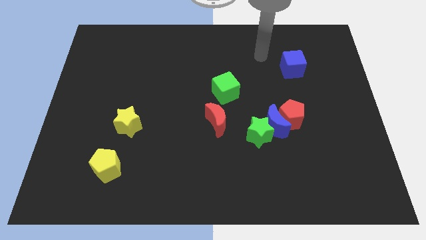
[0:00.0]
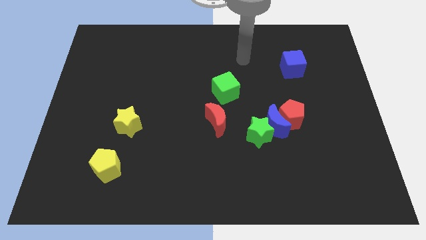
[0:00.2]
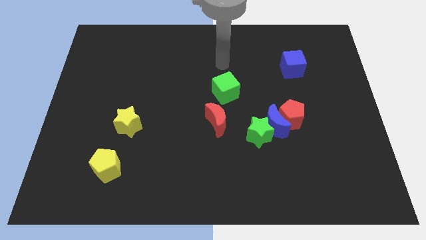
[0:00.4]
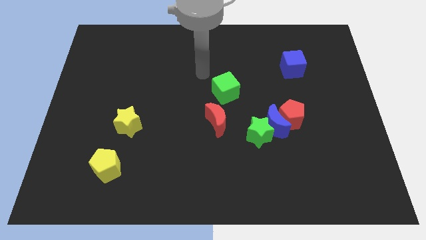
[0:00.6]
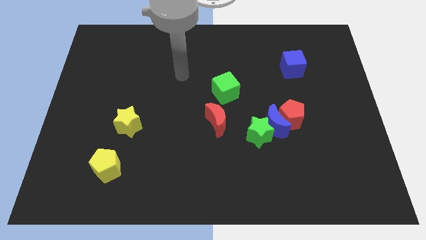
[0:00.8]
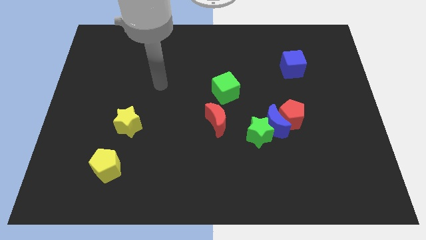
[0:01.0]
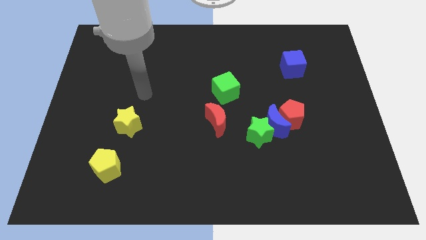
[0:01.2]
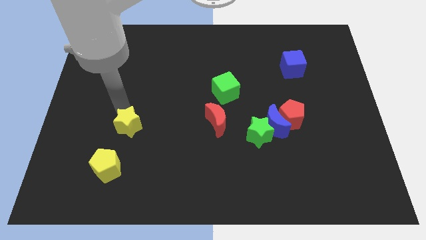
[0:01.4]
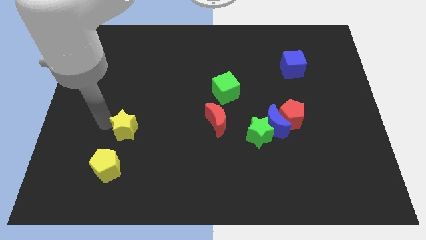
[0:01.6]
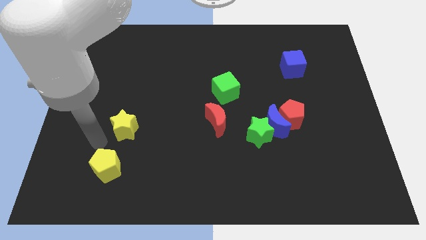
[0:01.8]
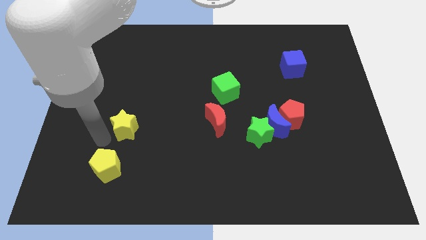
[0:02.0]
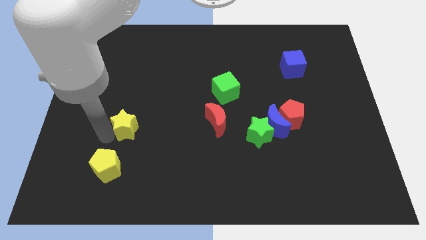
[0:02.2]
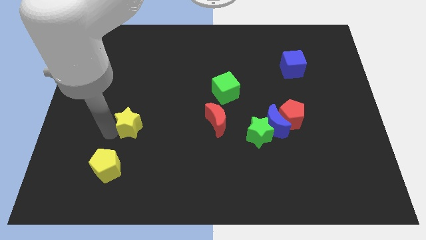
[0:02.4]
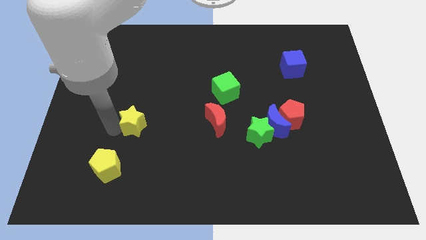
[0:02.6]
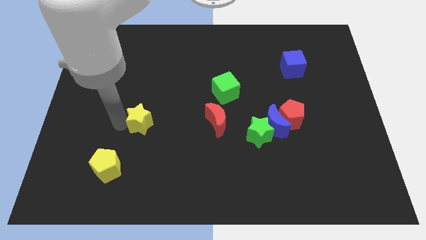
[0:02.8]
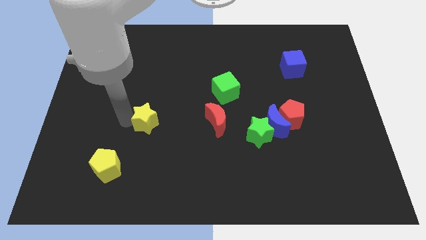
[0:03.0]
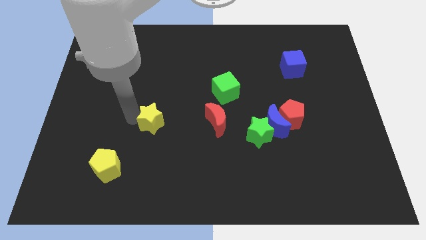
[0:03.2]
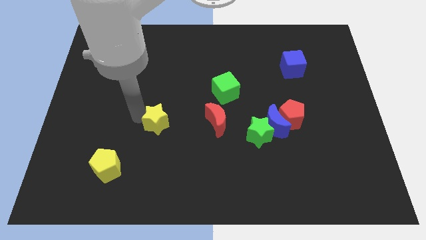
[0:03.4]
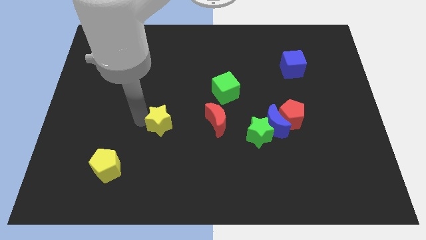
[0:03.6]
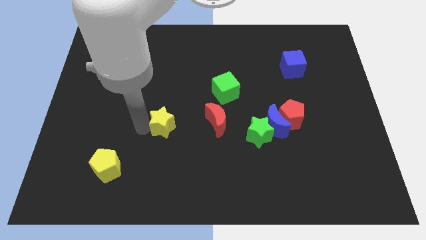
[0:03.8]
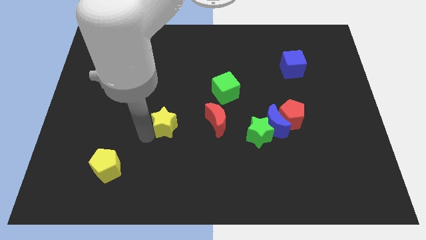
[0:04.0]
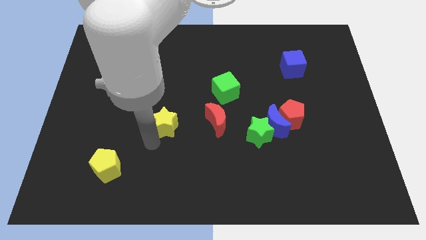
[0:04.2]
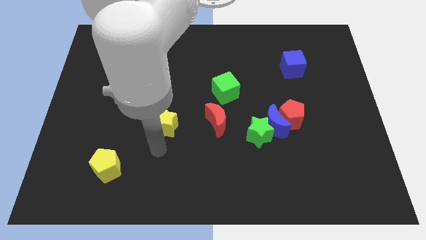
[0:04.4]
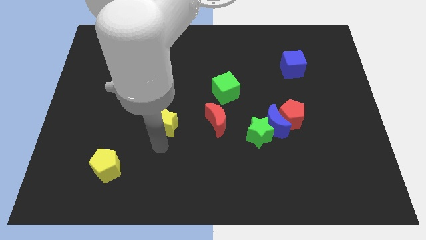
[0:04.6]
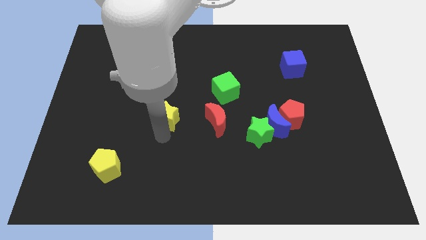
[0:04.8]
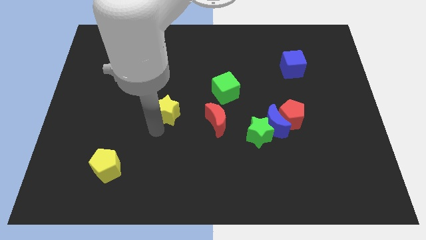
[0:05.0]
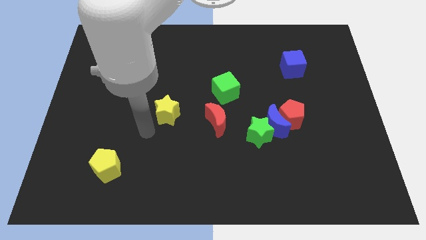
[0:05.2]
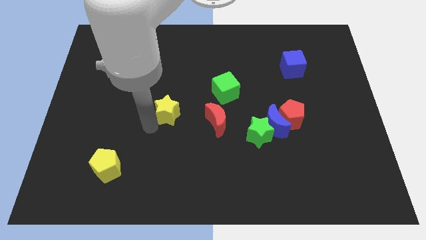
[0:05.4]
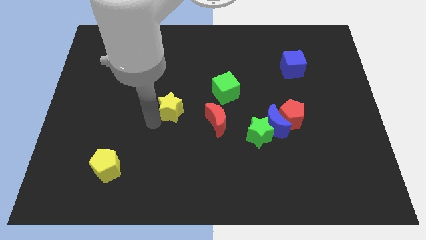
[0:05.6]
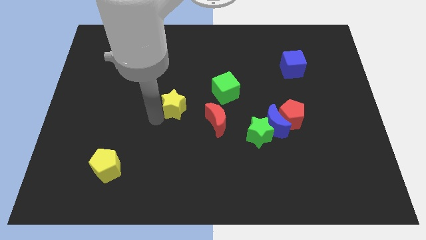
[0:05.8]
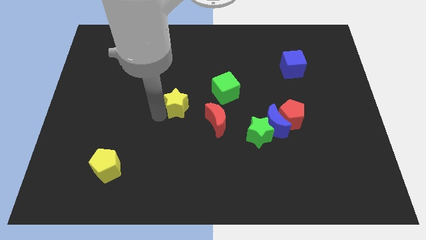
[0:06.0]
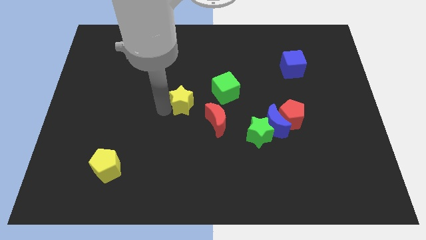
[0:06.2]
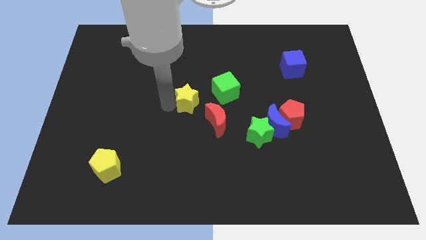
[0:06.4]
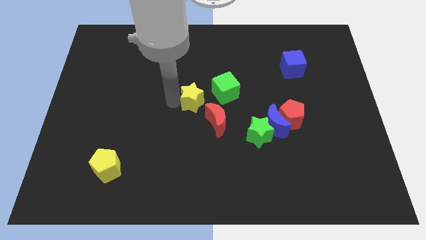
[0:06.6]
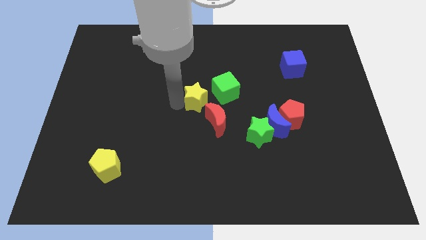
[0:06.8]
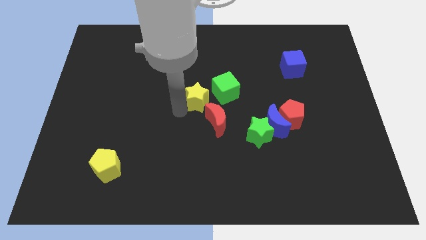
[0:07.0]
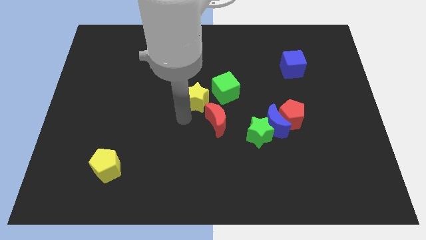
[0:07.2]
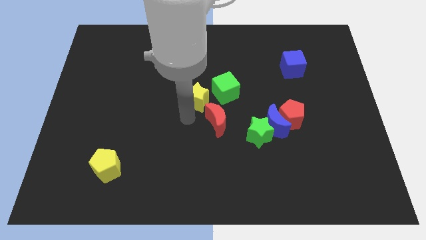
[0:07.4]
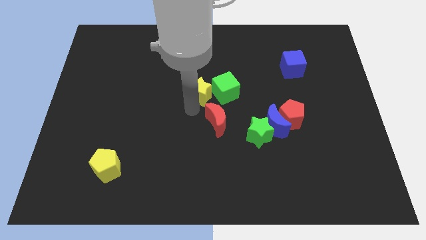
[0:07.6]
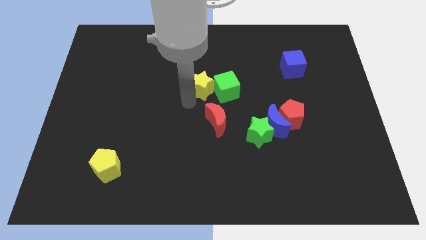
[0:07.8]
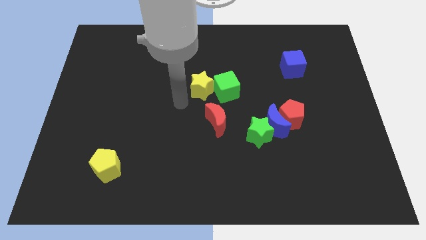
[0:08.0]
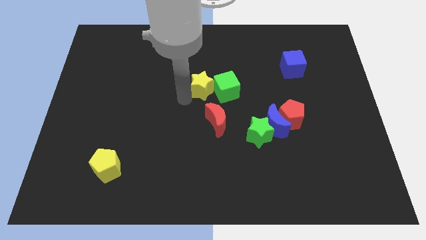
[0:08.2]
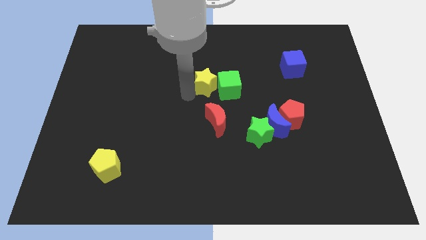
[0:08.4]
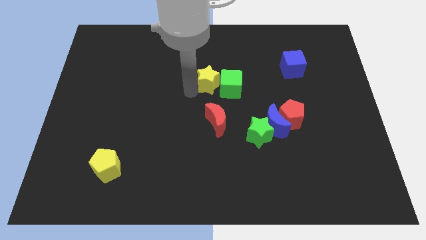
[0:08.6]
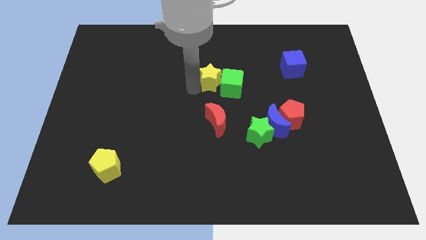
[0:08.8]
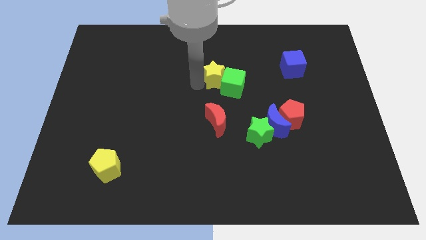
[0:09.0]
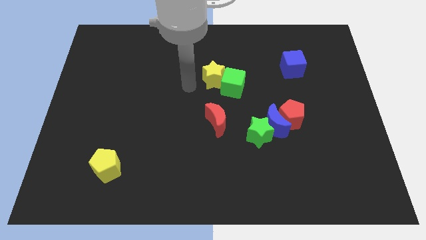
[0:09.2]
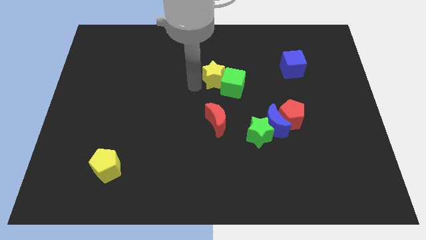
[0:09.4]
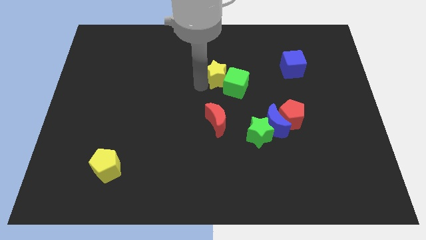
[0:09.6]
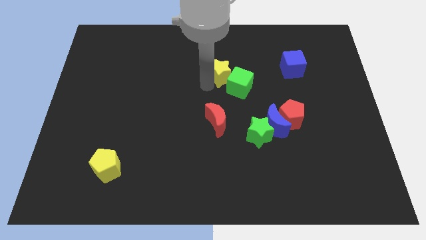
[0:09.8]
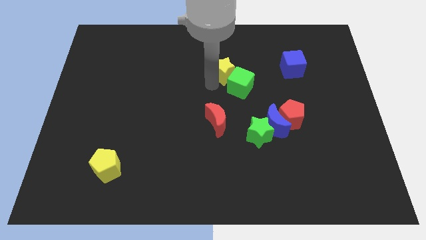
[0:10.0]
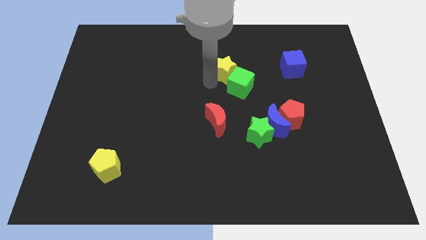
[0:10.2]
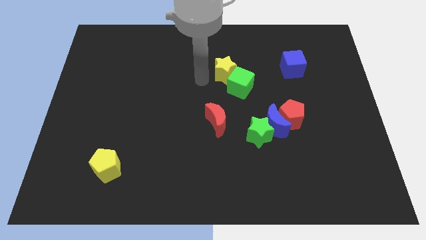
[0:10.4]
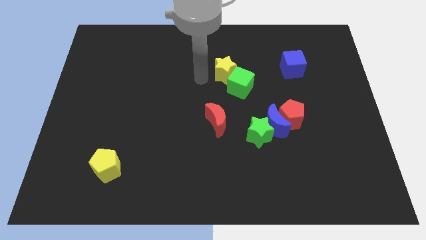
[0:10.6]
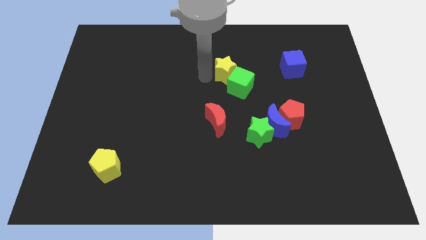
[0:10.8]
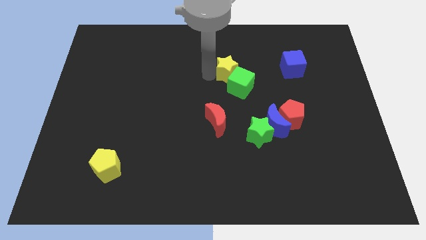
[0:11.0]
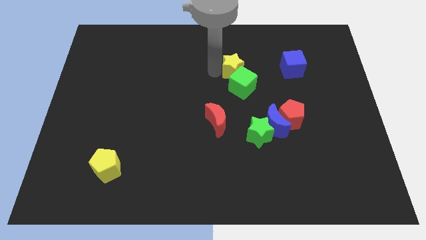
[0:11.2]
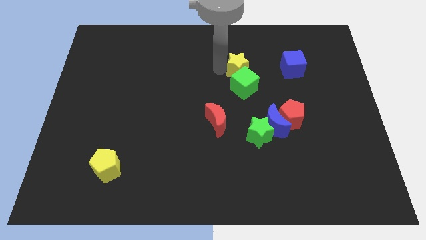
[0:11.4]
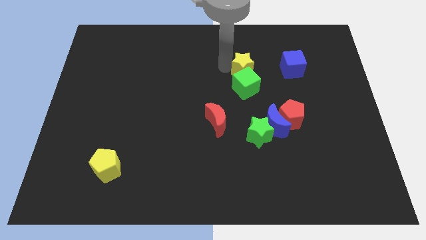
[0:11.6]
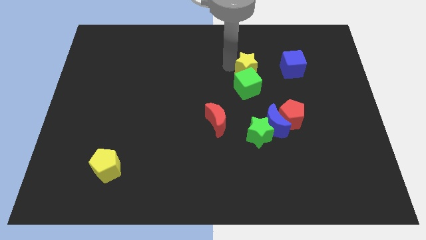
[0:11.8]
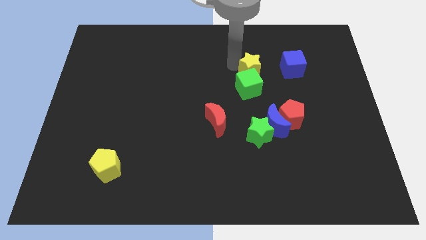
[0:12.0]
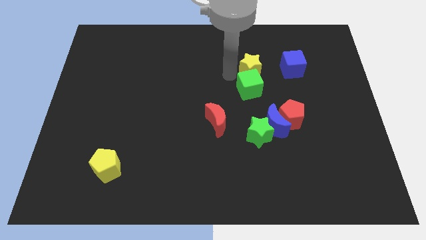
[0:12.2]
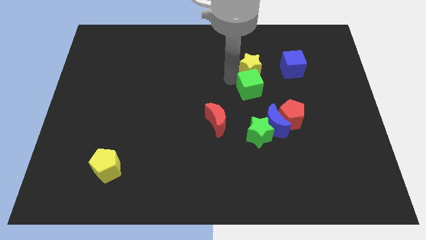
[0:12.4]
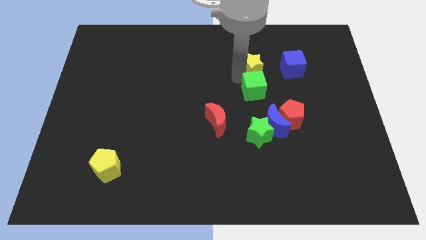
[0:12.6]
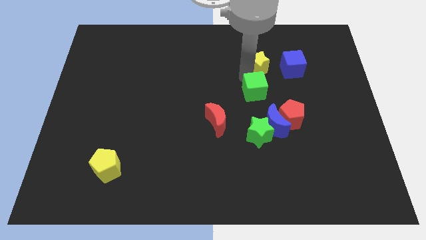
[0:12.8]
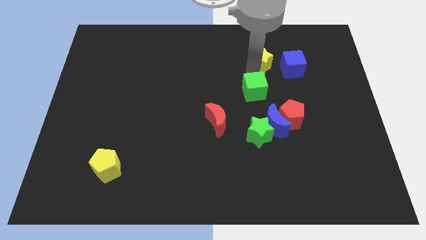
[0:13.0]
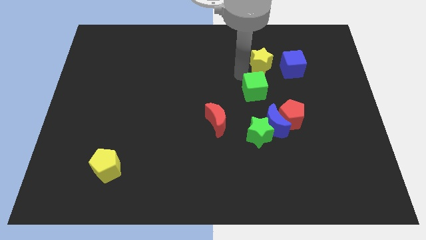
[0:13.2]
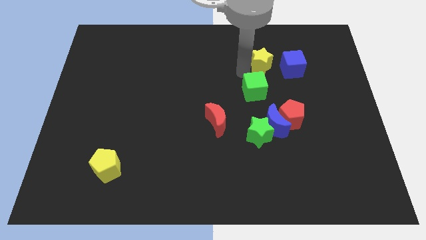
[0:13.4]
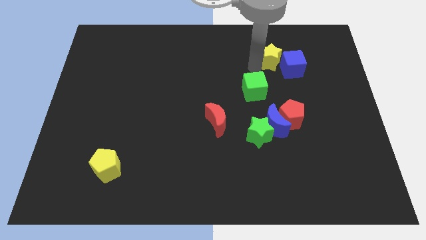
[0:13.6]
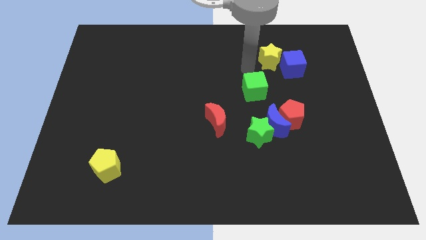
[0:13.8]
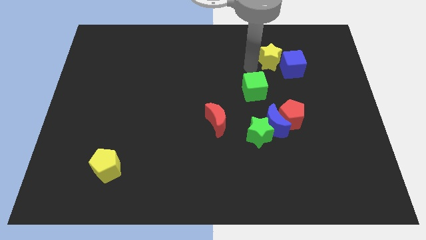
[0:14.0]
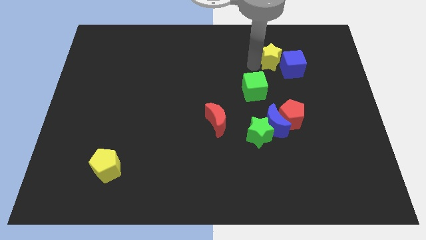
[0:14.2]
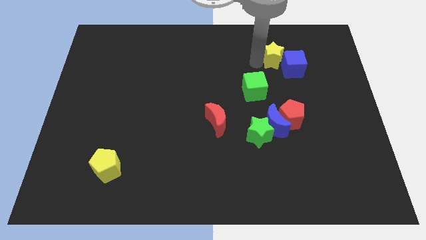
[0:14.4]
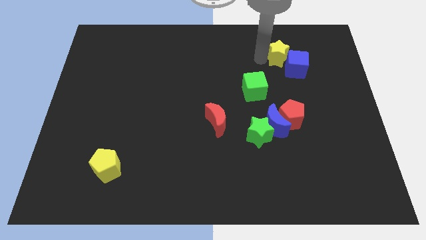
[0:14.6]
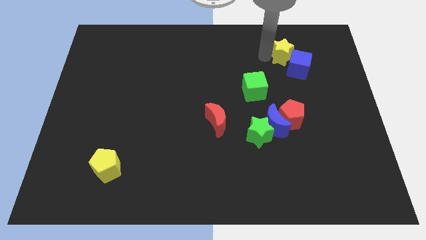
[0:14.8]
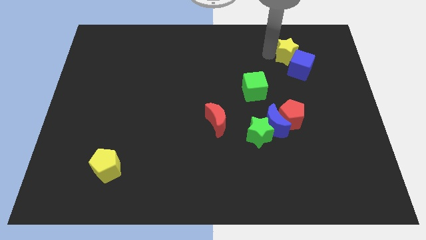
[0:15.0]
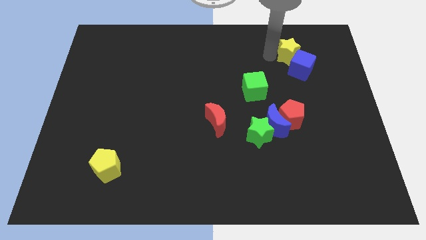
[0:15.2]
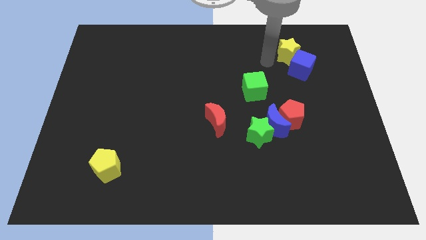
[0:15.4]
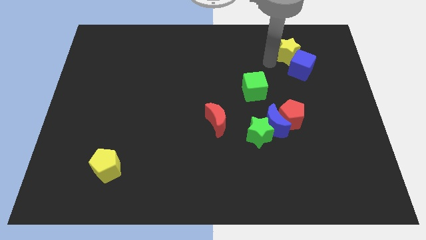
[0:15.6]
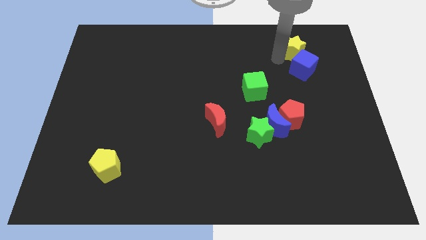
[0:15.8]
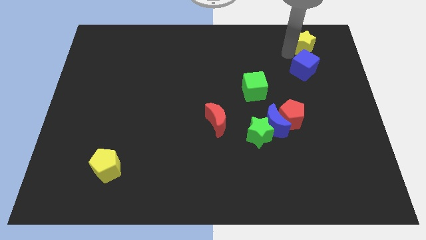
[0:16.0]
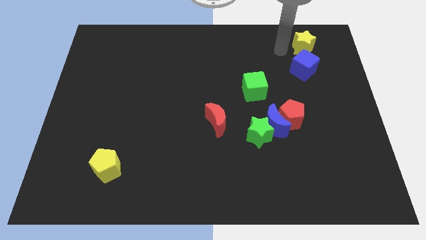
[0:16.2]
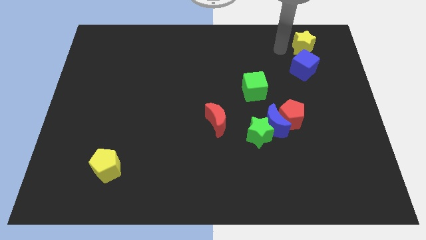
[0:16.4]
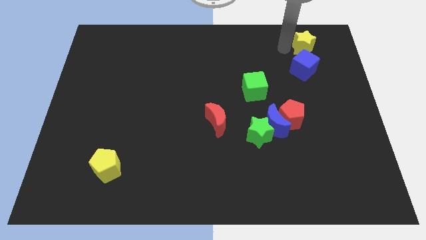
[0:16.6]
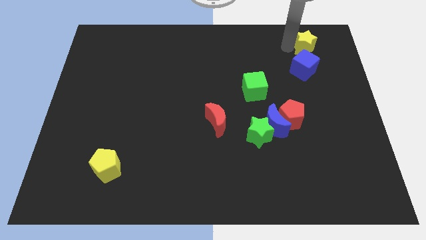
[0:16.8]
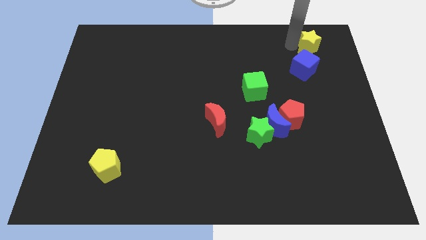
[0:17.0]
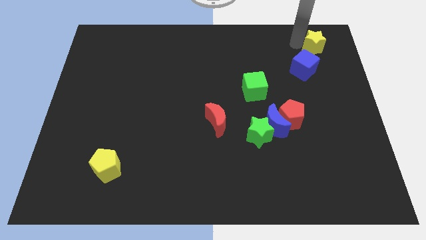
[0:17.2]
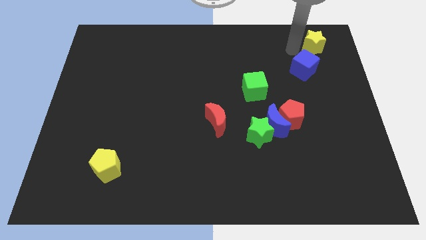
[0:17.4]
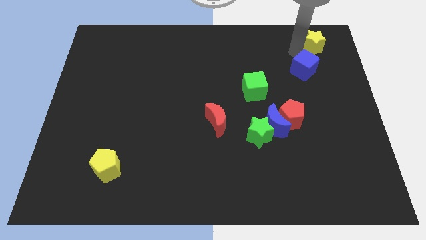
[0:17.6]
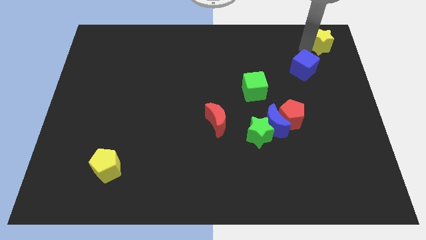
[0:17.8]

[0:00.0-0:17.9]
move the yellow star to the top right of the board
